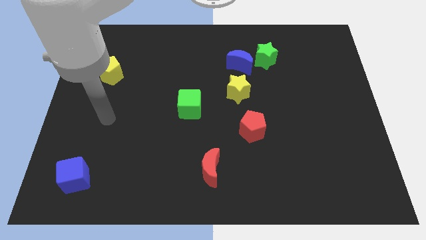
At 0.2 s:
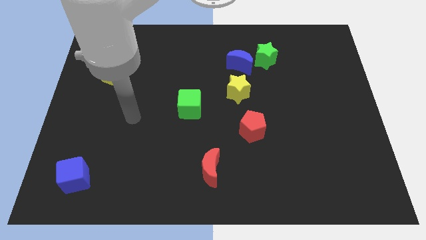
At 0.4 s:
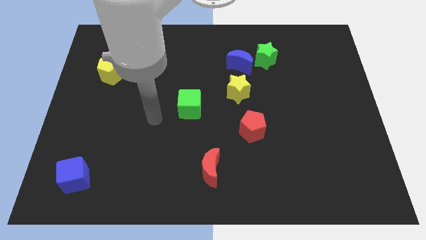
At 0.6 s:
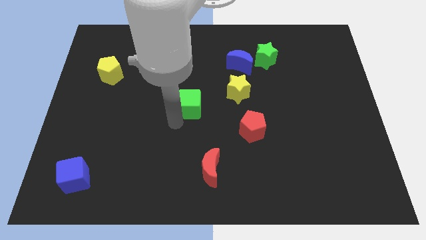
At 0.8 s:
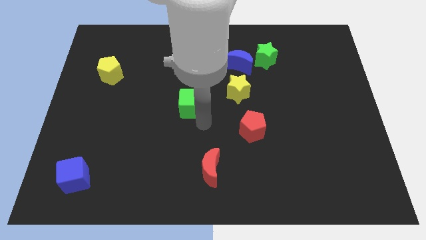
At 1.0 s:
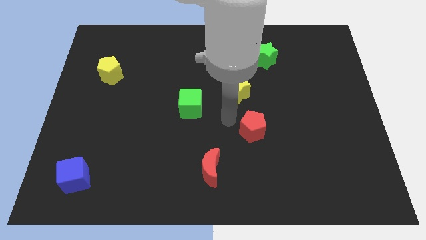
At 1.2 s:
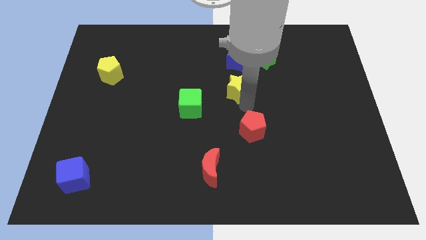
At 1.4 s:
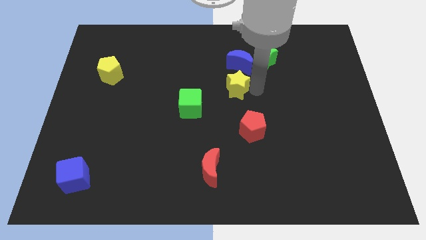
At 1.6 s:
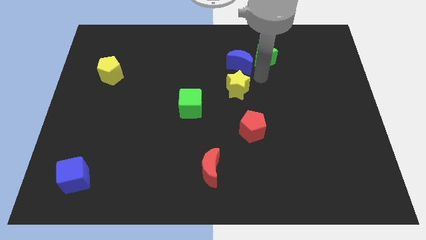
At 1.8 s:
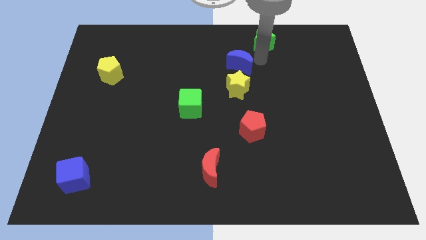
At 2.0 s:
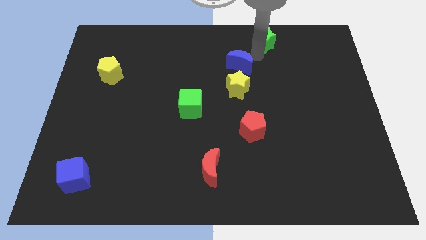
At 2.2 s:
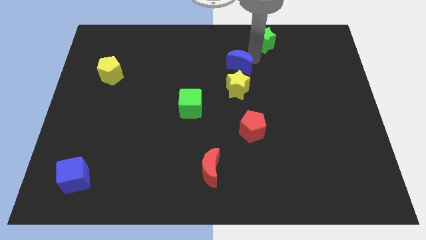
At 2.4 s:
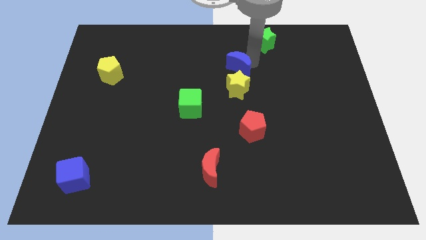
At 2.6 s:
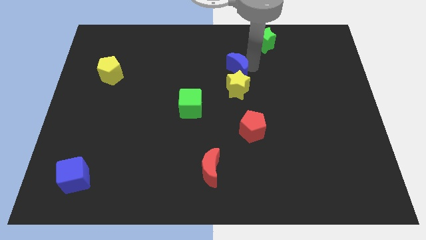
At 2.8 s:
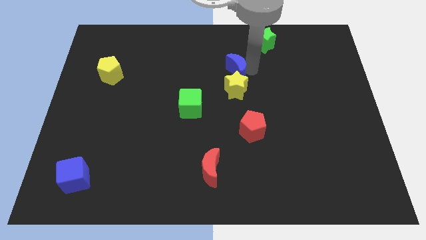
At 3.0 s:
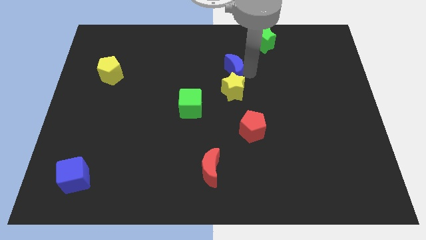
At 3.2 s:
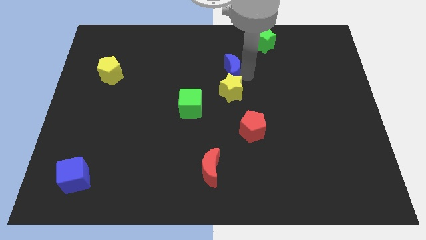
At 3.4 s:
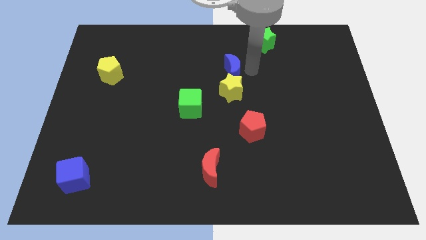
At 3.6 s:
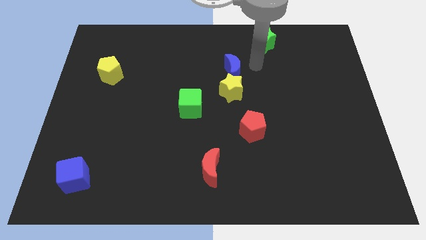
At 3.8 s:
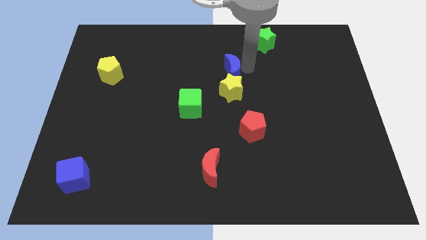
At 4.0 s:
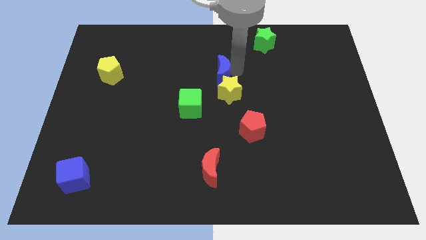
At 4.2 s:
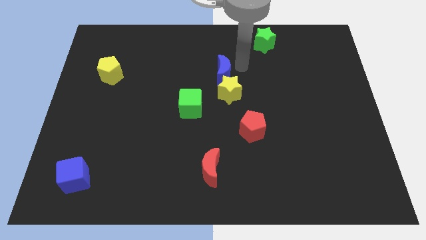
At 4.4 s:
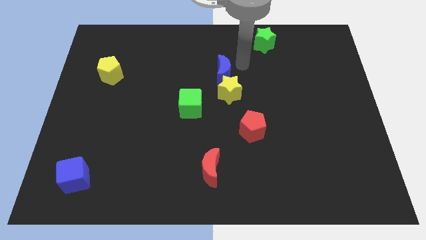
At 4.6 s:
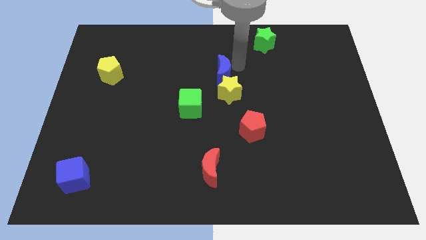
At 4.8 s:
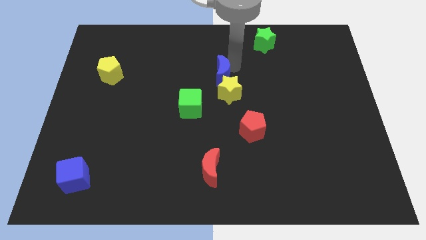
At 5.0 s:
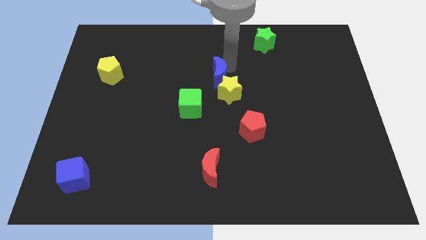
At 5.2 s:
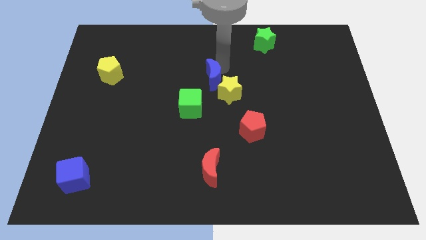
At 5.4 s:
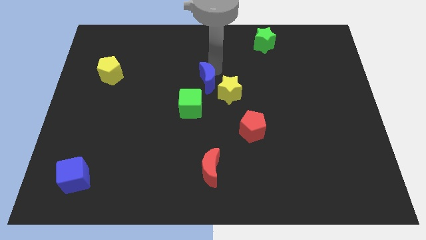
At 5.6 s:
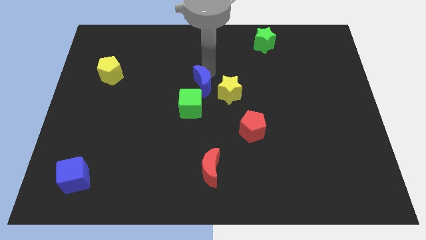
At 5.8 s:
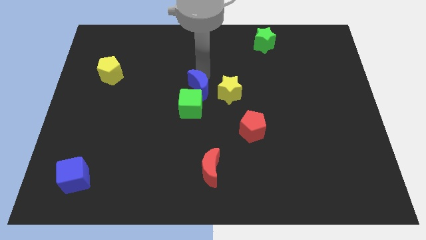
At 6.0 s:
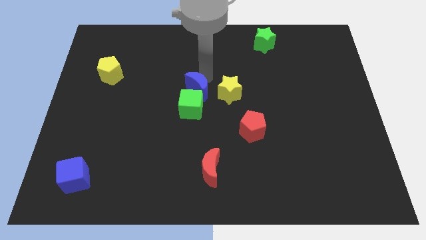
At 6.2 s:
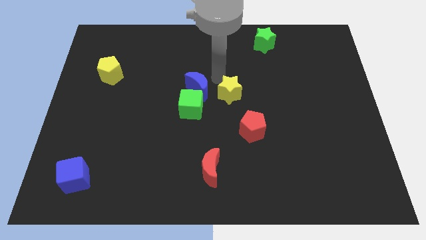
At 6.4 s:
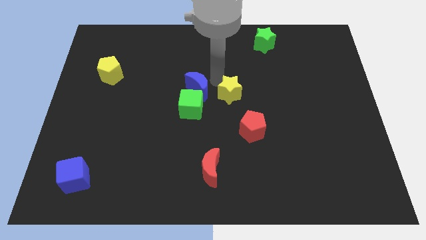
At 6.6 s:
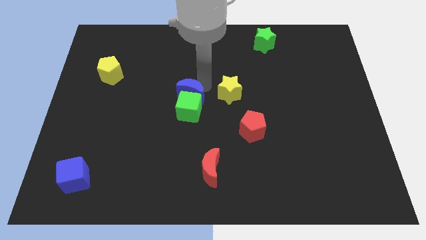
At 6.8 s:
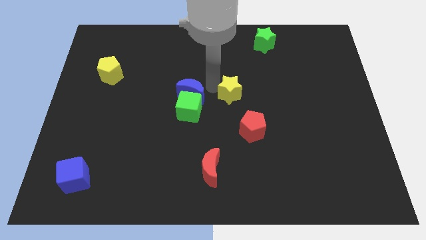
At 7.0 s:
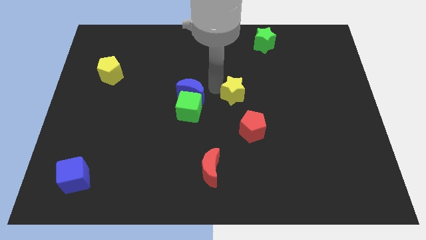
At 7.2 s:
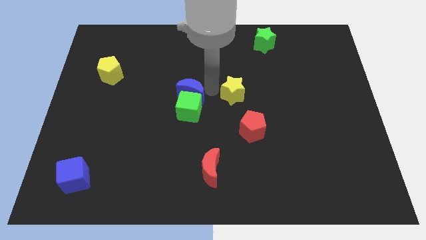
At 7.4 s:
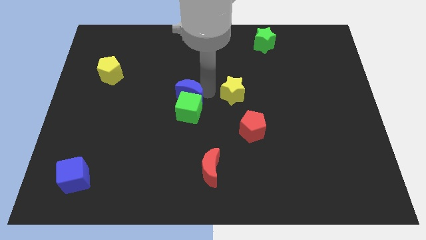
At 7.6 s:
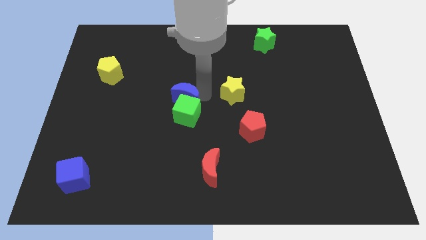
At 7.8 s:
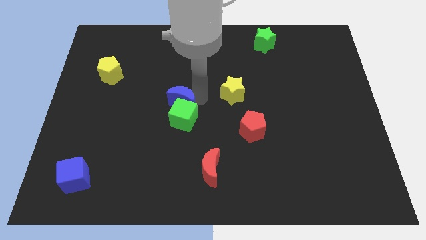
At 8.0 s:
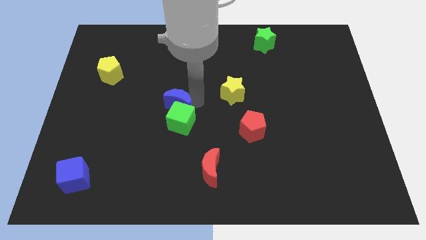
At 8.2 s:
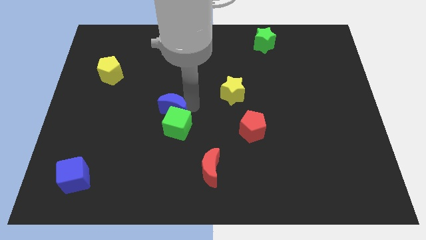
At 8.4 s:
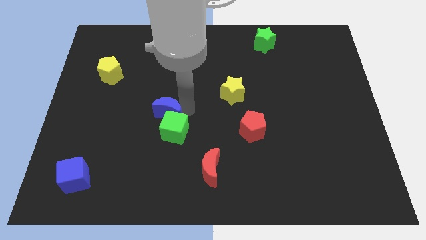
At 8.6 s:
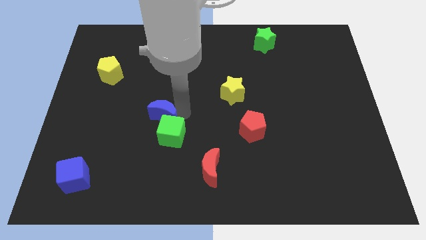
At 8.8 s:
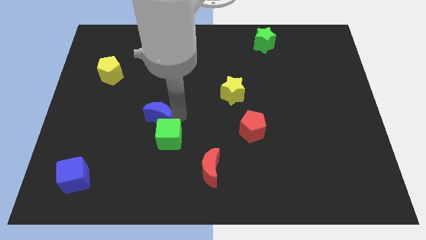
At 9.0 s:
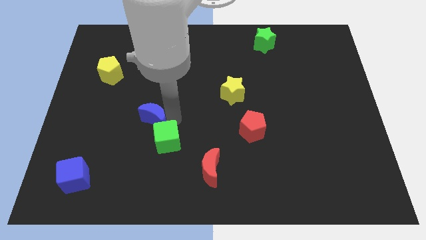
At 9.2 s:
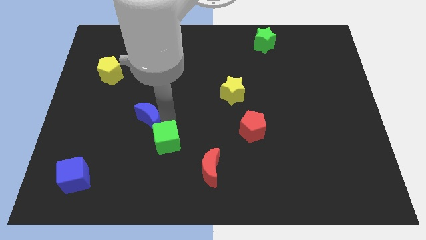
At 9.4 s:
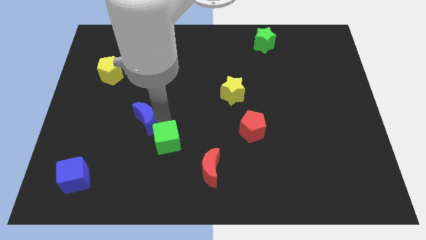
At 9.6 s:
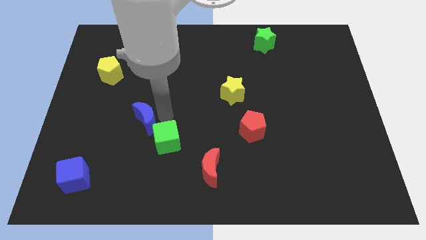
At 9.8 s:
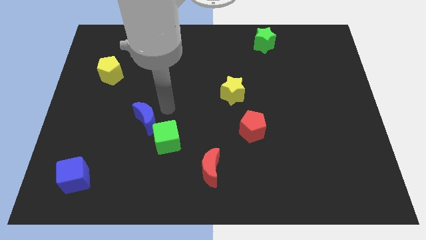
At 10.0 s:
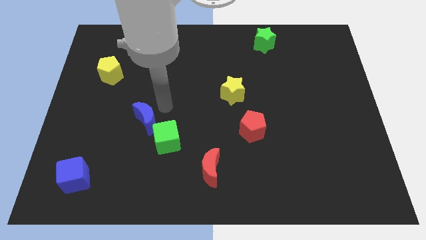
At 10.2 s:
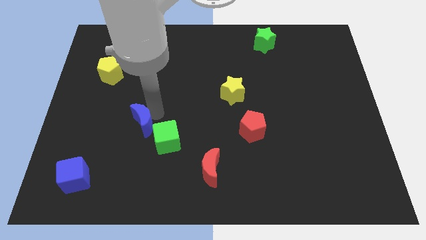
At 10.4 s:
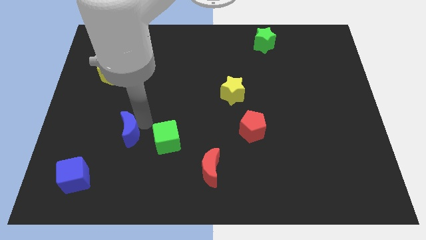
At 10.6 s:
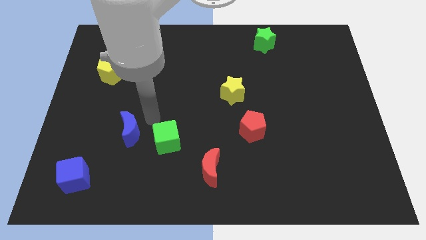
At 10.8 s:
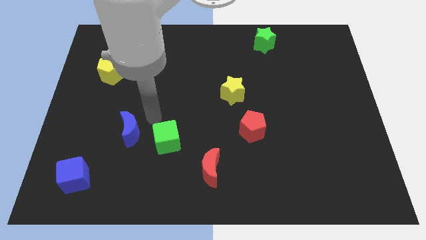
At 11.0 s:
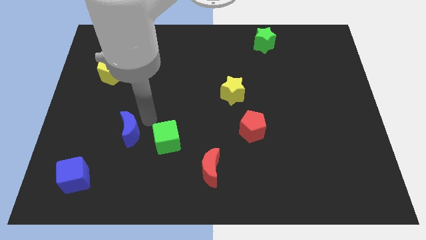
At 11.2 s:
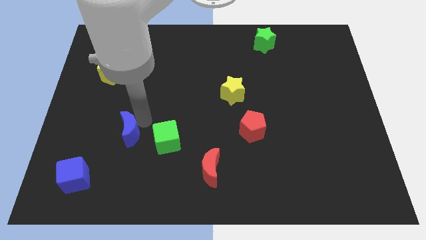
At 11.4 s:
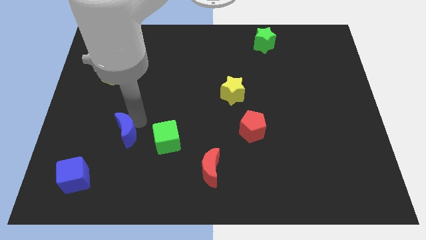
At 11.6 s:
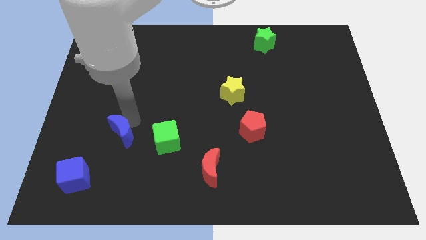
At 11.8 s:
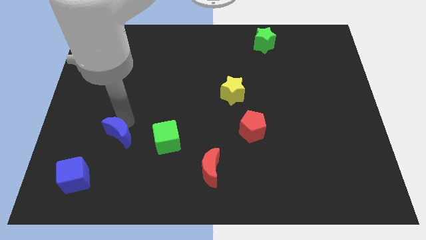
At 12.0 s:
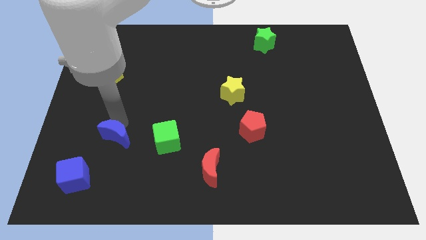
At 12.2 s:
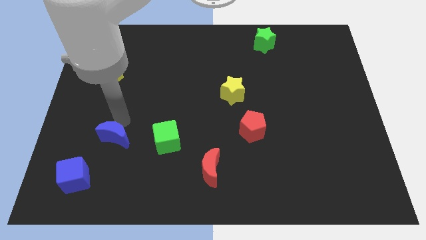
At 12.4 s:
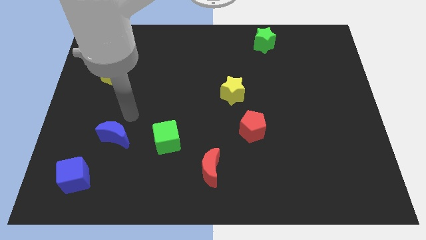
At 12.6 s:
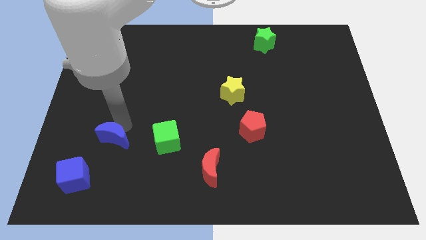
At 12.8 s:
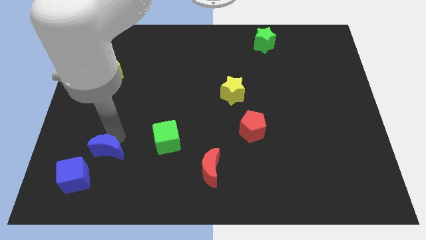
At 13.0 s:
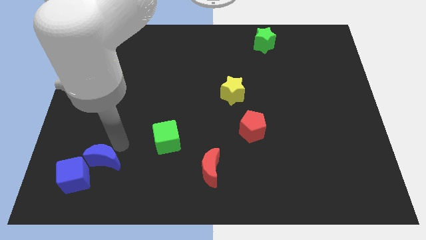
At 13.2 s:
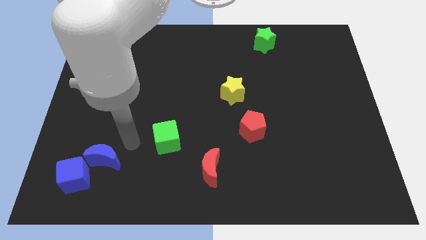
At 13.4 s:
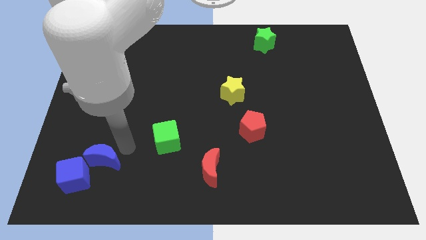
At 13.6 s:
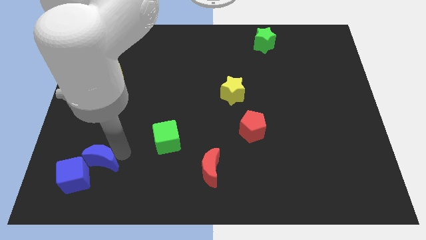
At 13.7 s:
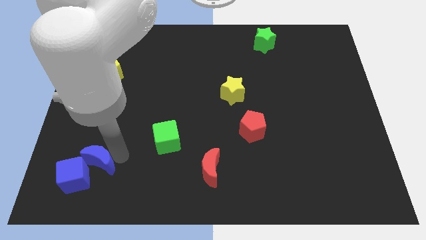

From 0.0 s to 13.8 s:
push the blue moon to the blue cube
